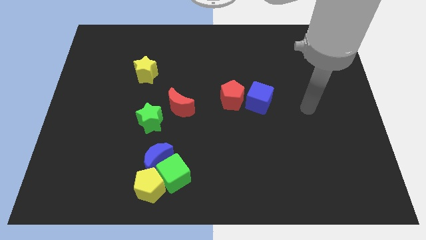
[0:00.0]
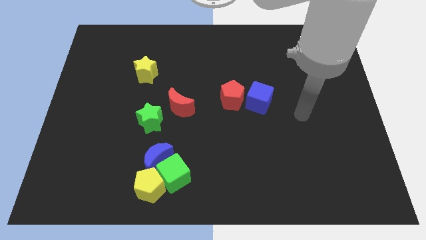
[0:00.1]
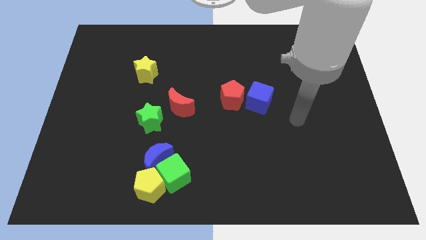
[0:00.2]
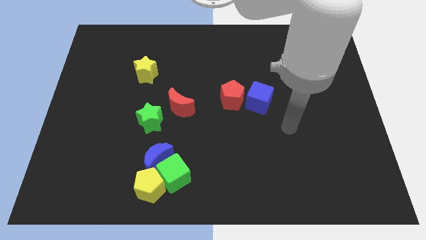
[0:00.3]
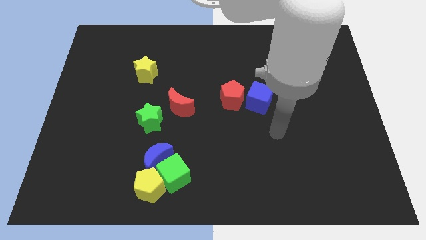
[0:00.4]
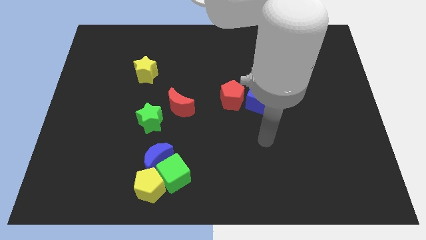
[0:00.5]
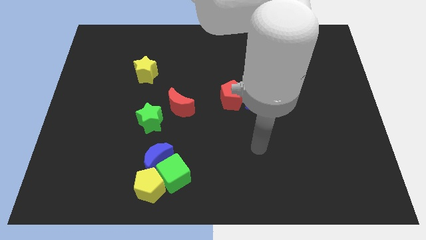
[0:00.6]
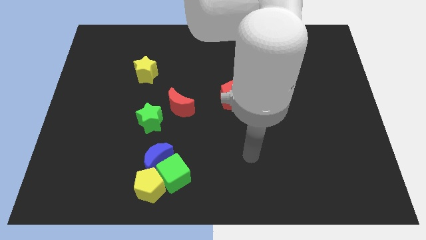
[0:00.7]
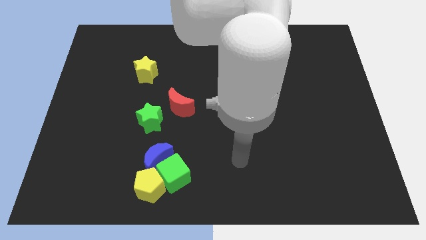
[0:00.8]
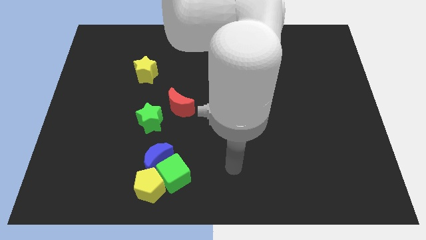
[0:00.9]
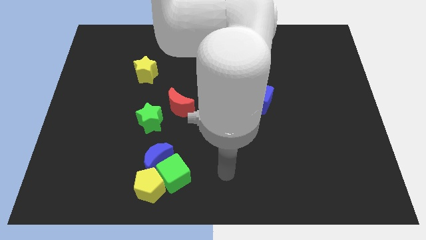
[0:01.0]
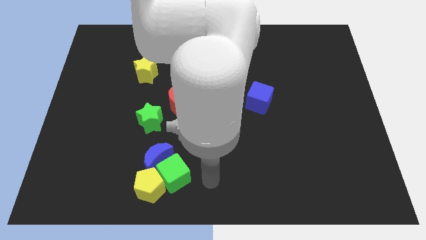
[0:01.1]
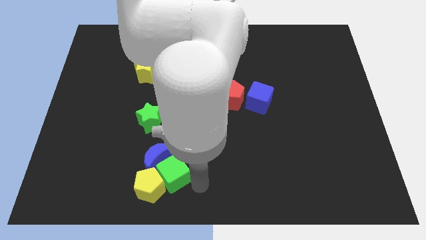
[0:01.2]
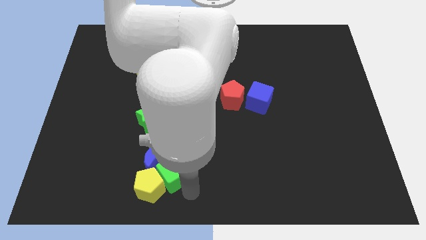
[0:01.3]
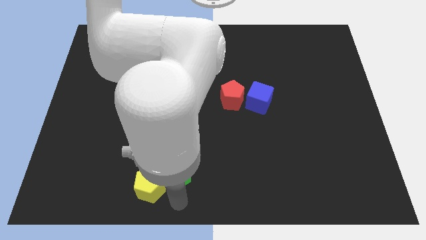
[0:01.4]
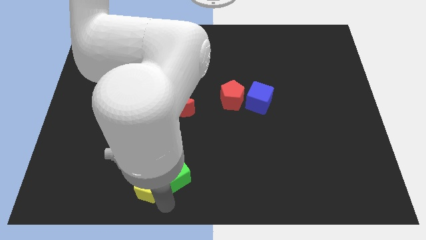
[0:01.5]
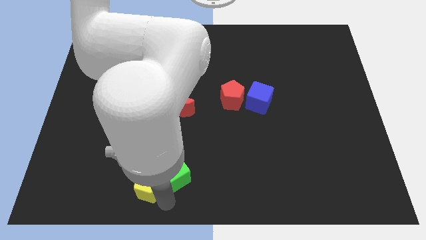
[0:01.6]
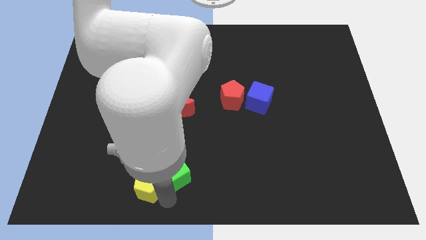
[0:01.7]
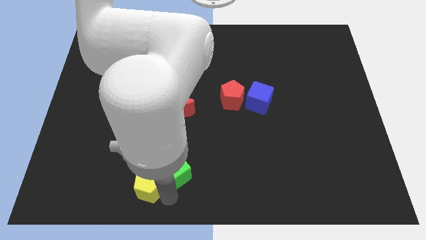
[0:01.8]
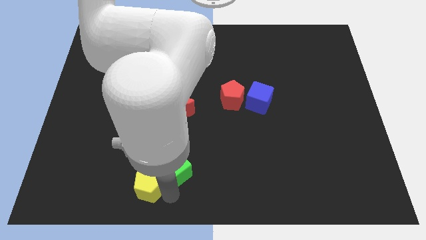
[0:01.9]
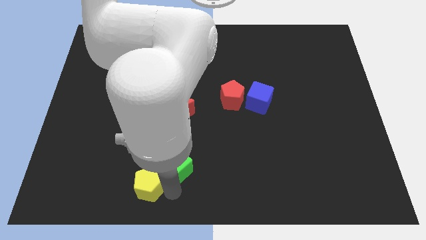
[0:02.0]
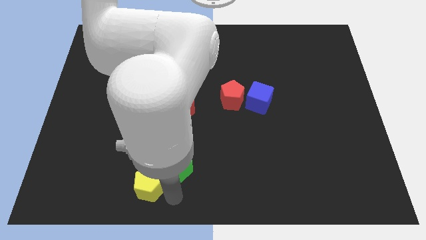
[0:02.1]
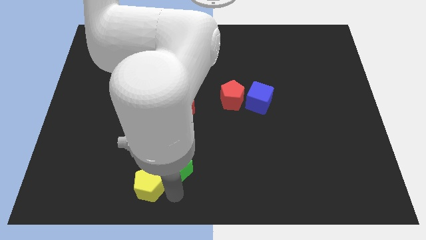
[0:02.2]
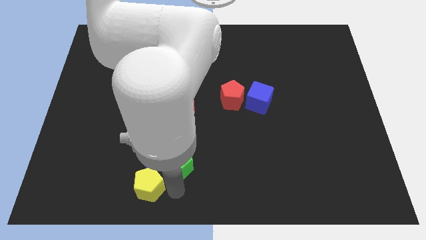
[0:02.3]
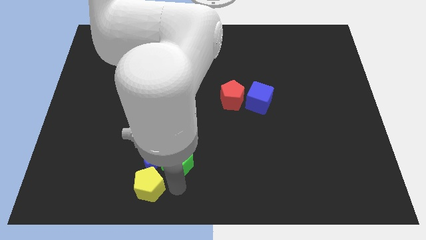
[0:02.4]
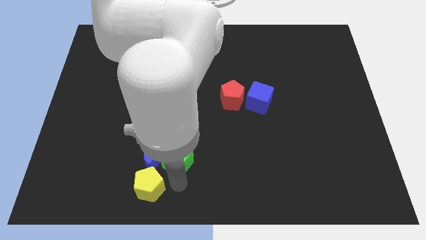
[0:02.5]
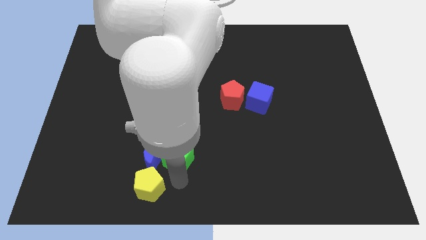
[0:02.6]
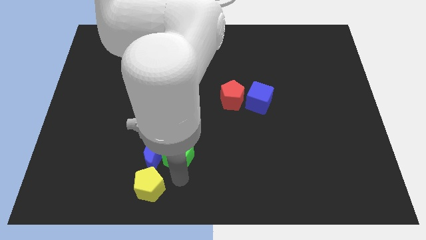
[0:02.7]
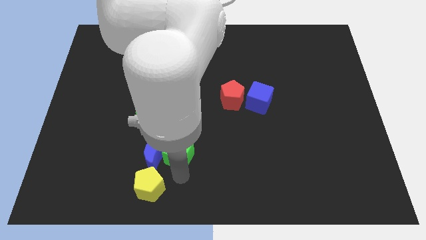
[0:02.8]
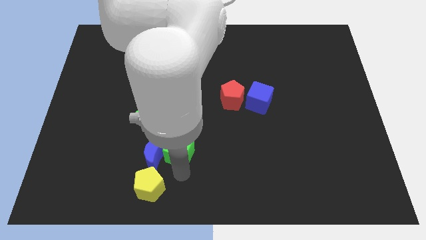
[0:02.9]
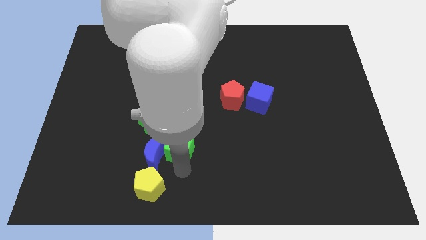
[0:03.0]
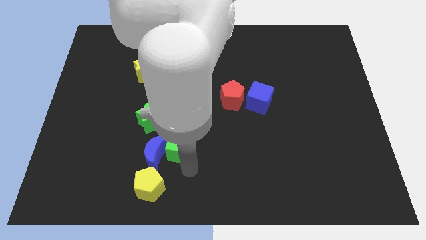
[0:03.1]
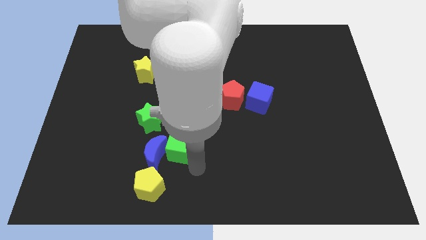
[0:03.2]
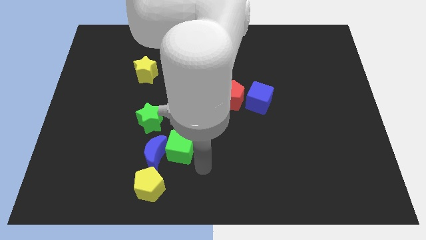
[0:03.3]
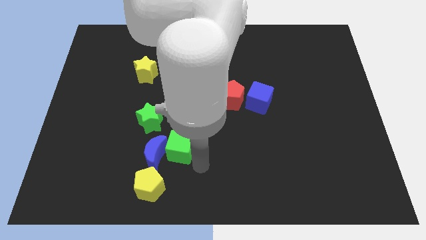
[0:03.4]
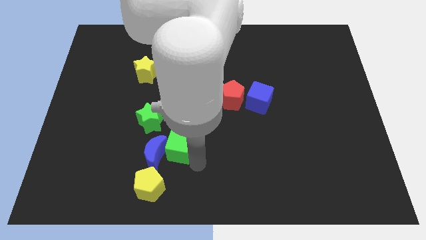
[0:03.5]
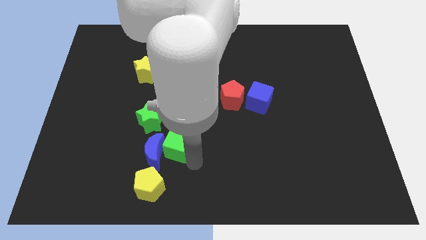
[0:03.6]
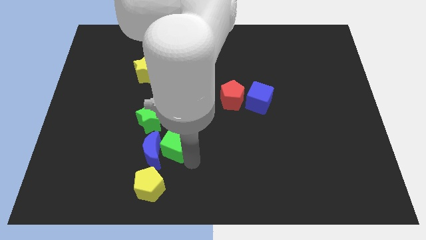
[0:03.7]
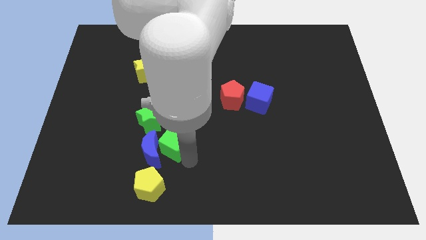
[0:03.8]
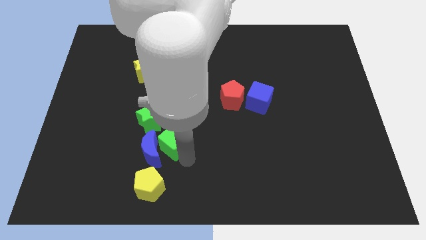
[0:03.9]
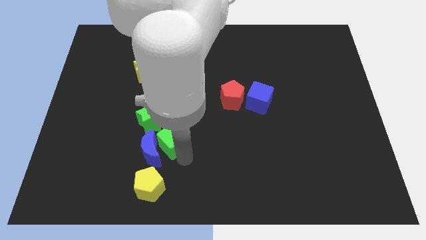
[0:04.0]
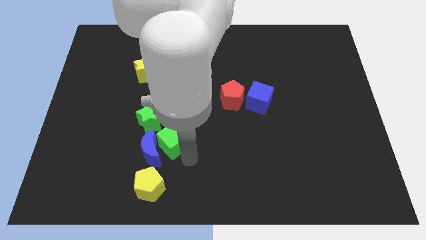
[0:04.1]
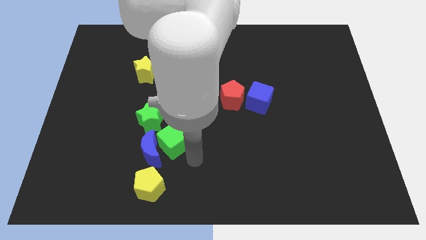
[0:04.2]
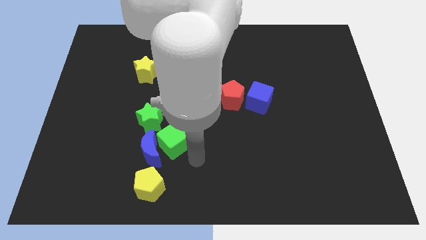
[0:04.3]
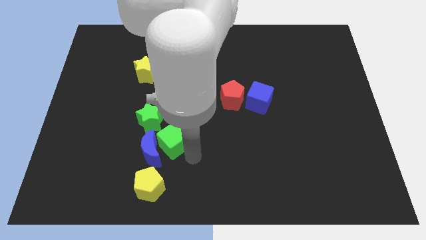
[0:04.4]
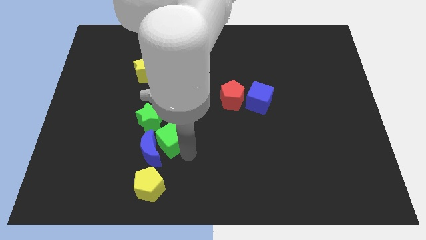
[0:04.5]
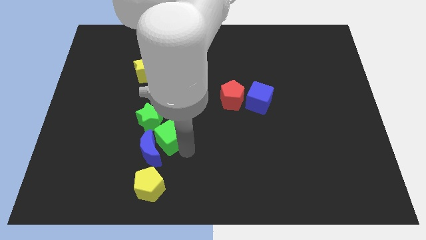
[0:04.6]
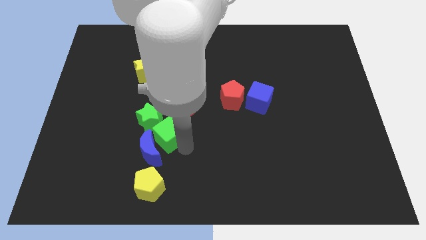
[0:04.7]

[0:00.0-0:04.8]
move the green cube a little bit upwards and then left

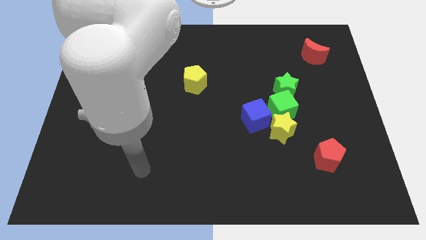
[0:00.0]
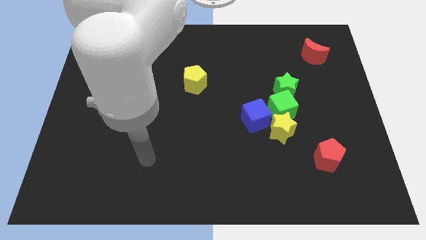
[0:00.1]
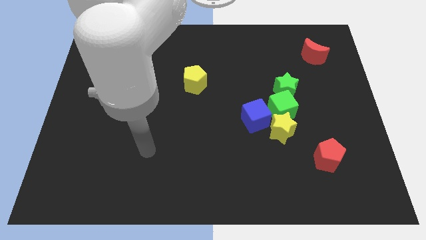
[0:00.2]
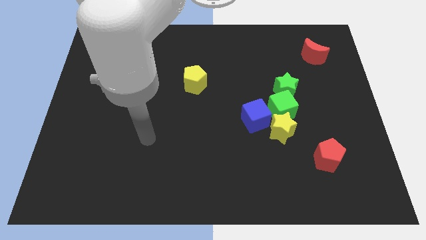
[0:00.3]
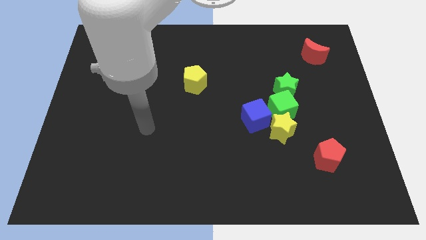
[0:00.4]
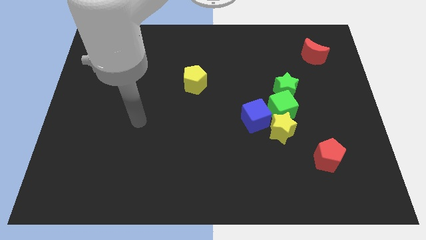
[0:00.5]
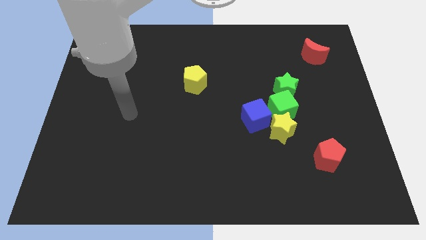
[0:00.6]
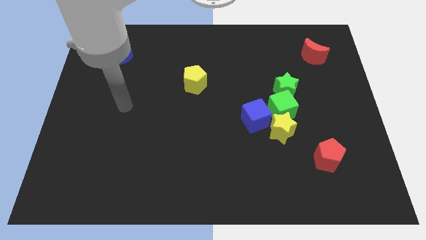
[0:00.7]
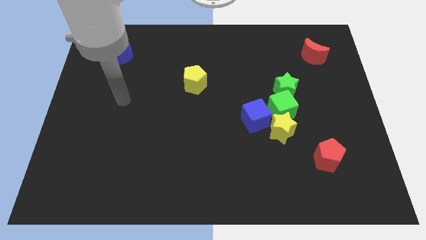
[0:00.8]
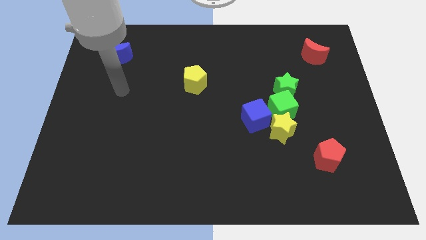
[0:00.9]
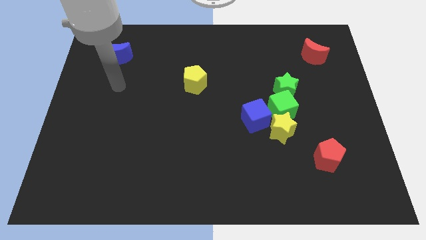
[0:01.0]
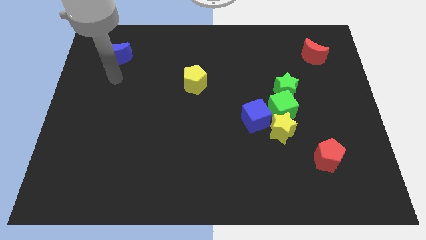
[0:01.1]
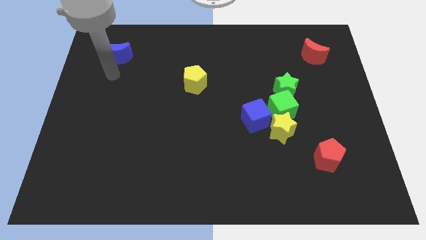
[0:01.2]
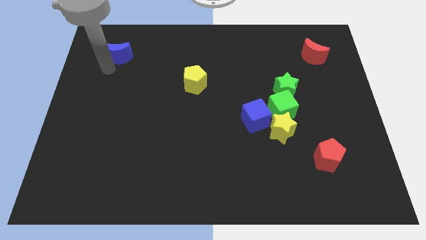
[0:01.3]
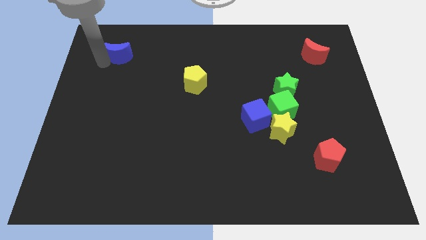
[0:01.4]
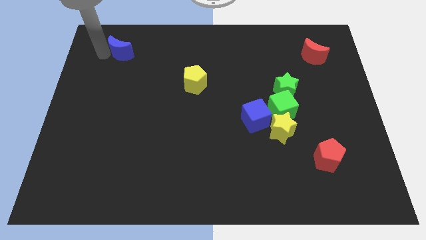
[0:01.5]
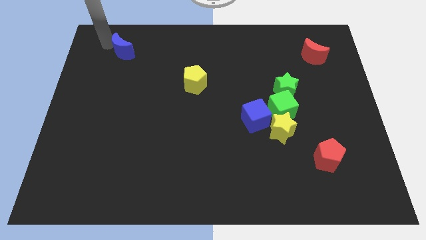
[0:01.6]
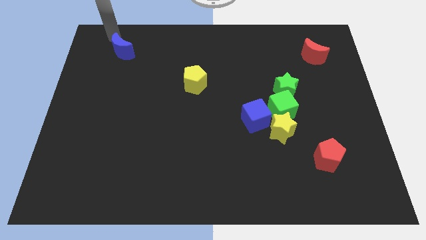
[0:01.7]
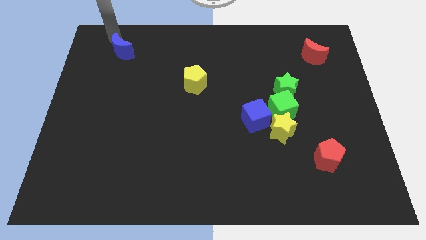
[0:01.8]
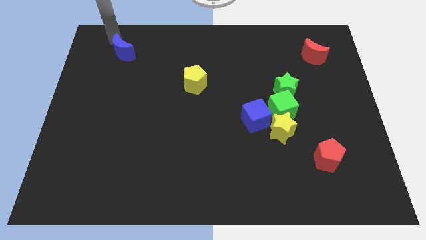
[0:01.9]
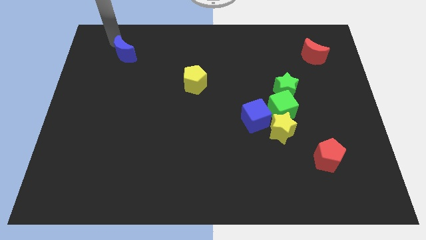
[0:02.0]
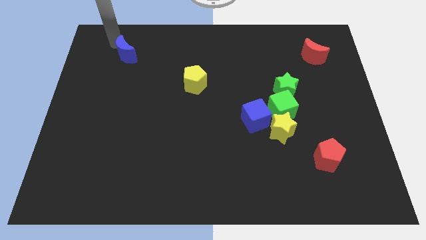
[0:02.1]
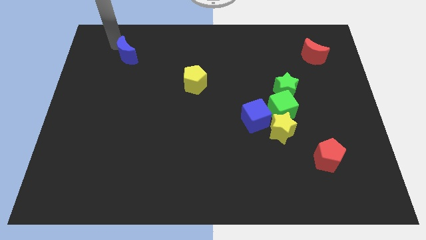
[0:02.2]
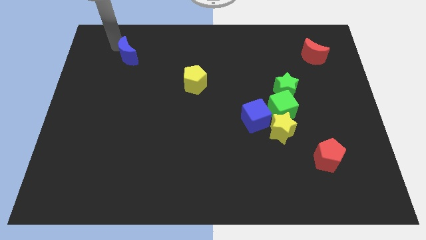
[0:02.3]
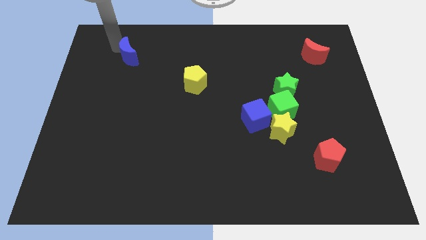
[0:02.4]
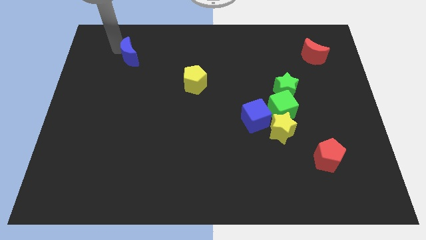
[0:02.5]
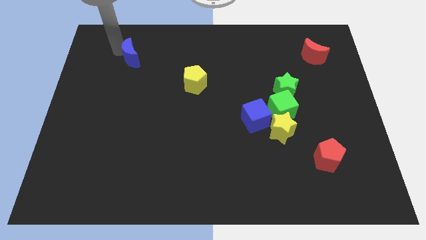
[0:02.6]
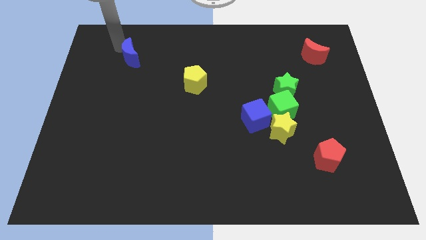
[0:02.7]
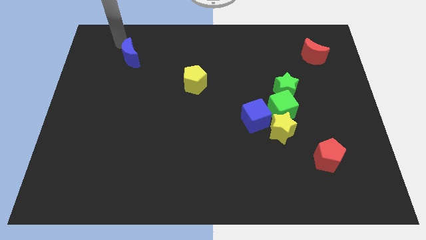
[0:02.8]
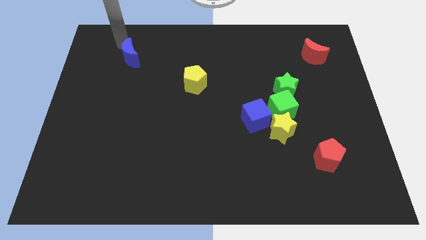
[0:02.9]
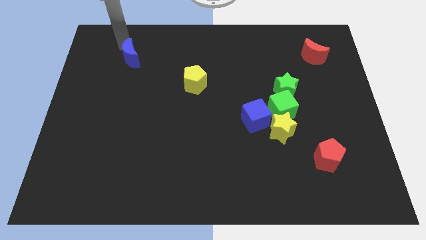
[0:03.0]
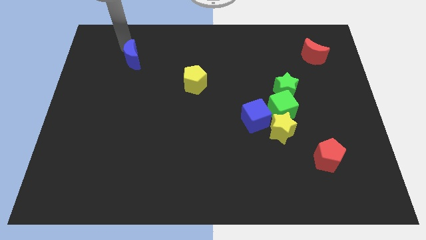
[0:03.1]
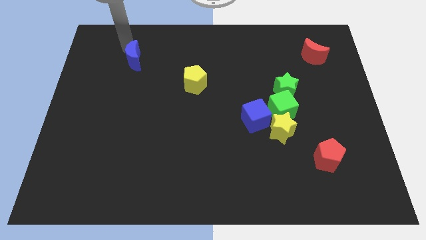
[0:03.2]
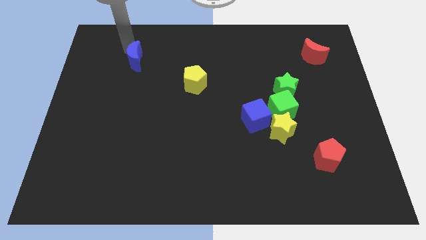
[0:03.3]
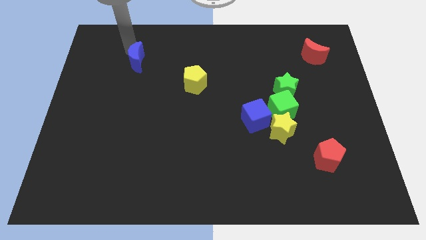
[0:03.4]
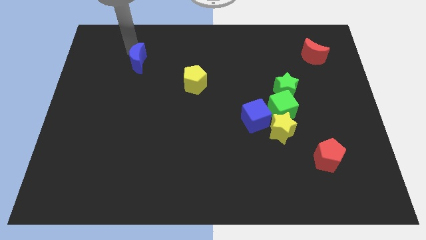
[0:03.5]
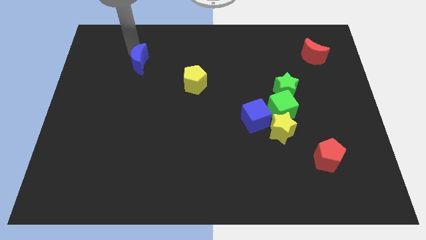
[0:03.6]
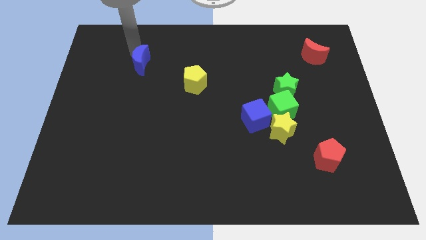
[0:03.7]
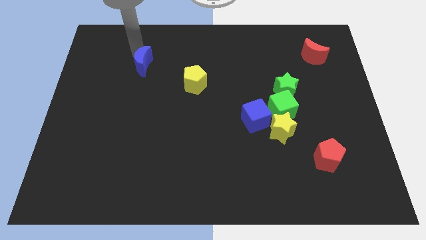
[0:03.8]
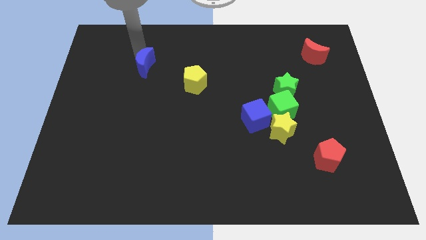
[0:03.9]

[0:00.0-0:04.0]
move the blue moon somewhat downwards and to the right
